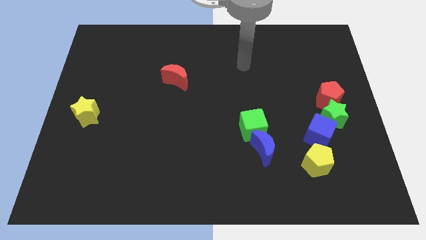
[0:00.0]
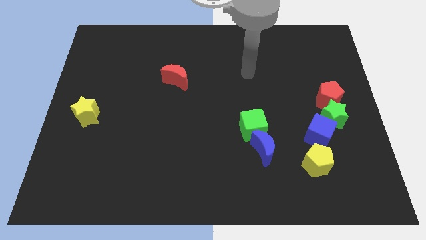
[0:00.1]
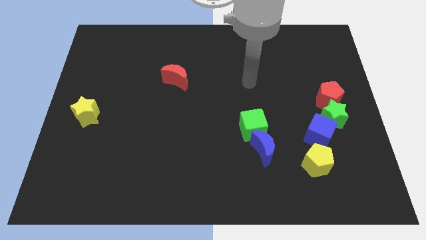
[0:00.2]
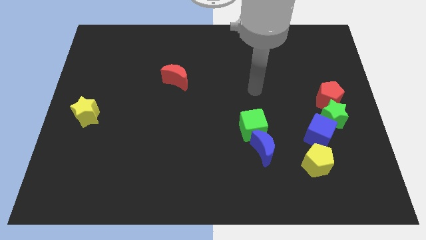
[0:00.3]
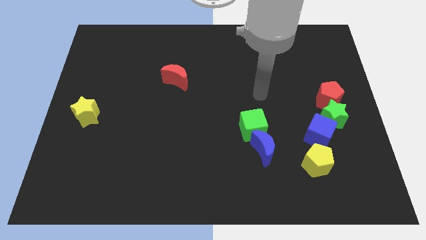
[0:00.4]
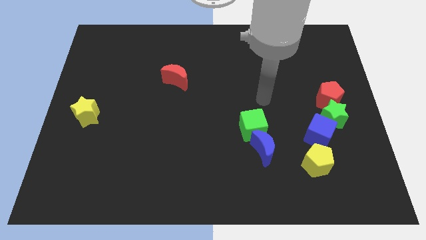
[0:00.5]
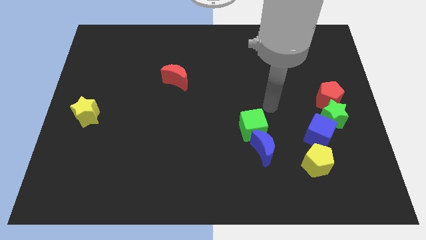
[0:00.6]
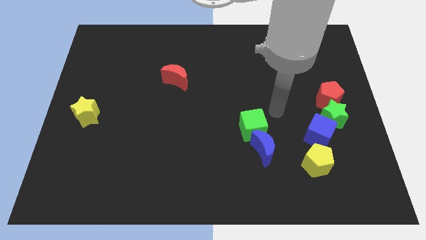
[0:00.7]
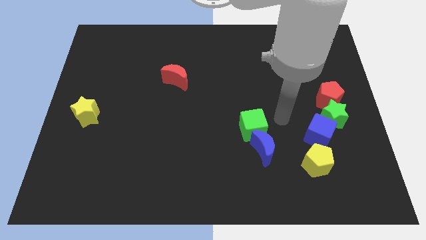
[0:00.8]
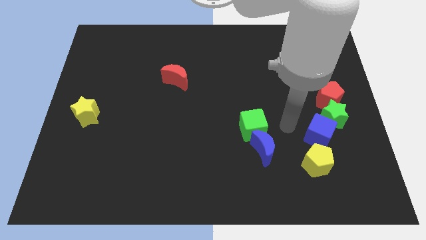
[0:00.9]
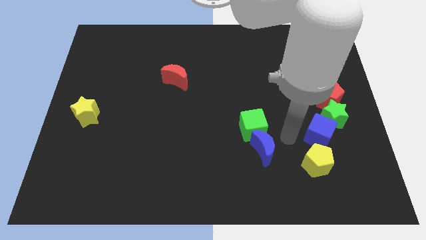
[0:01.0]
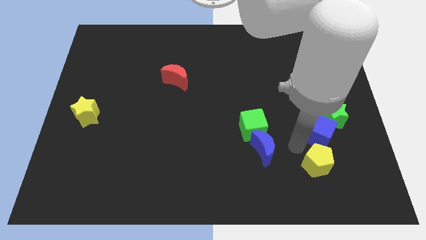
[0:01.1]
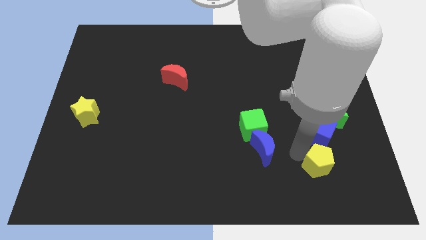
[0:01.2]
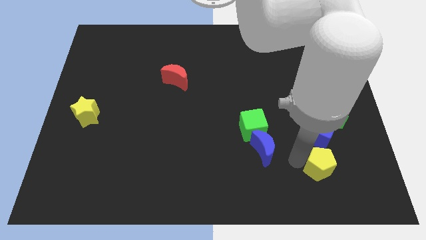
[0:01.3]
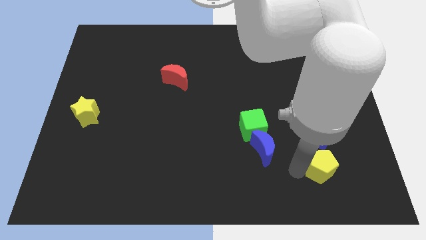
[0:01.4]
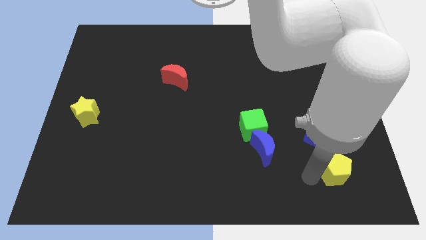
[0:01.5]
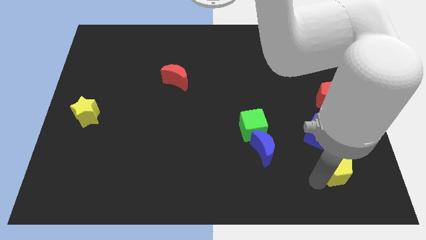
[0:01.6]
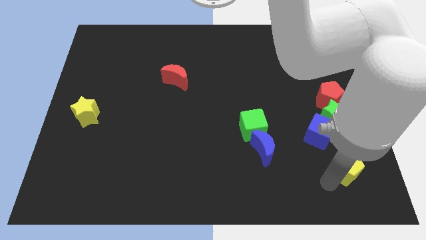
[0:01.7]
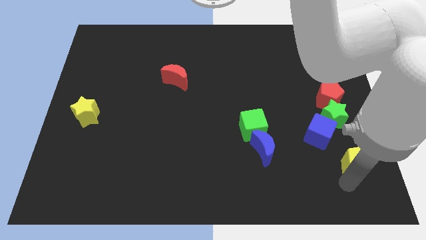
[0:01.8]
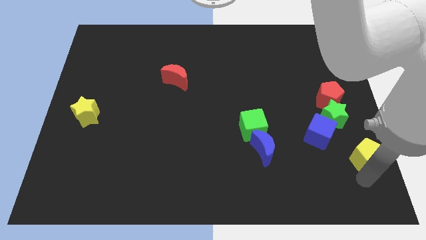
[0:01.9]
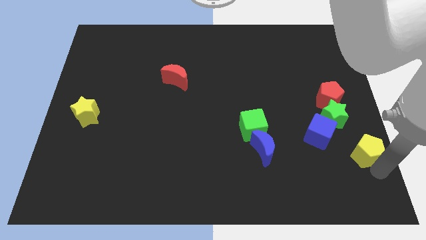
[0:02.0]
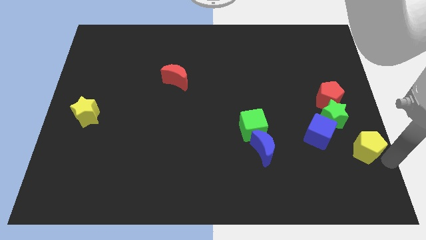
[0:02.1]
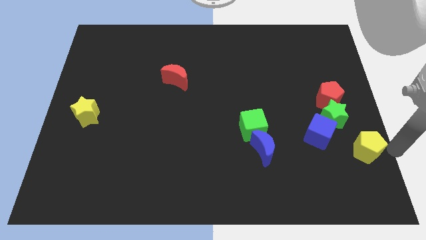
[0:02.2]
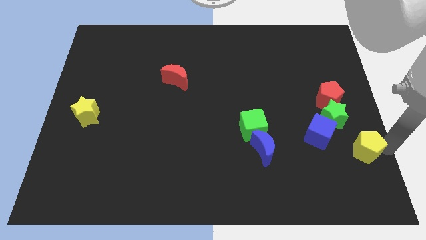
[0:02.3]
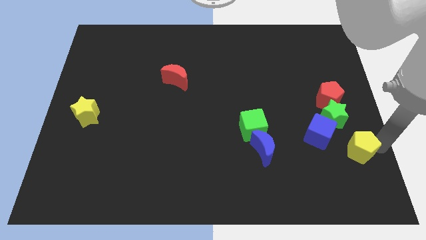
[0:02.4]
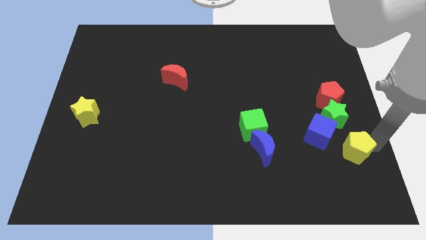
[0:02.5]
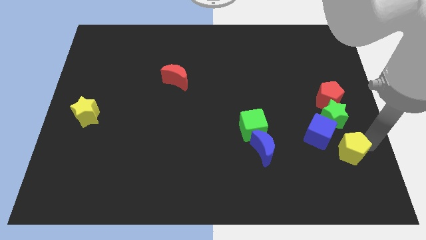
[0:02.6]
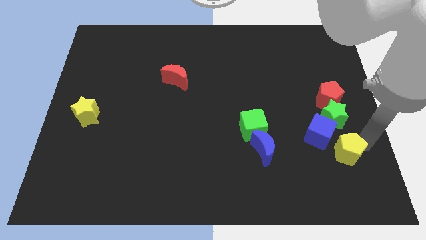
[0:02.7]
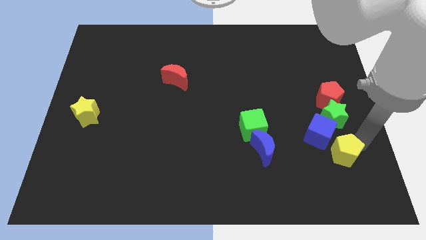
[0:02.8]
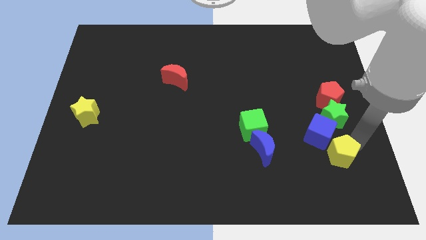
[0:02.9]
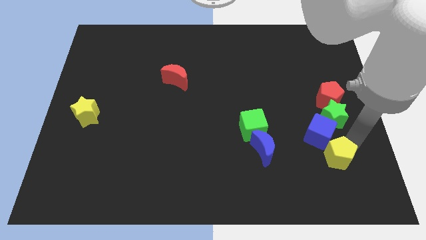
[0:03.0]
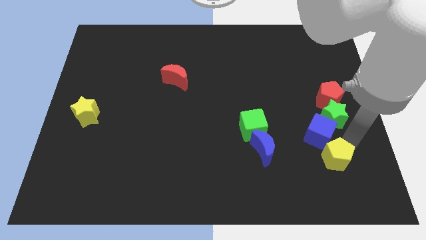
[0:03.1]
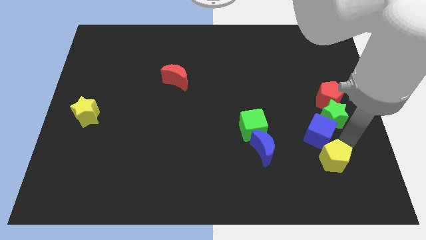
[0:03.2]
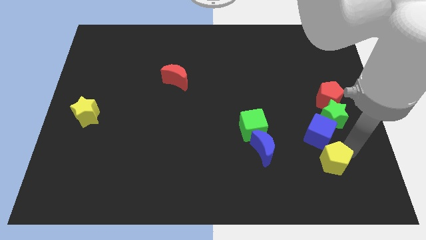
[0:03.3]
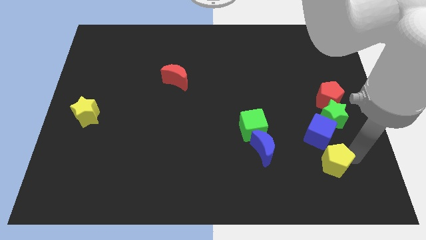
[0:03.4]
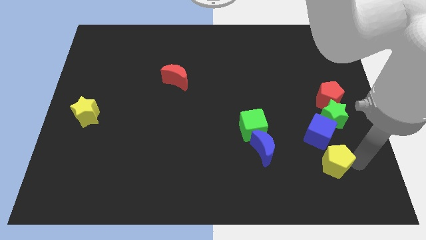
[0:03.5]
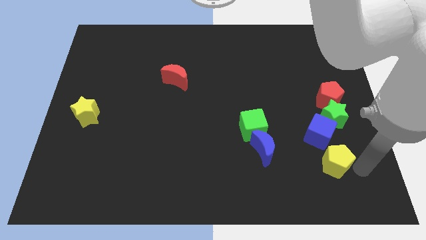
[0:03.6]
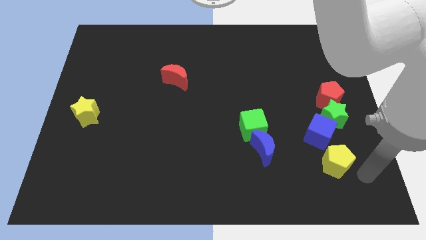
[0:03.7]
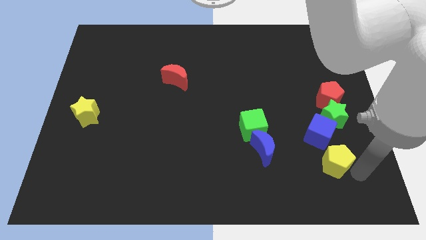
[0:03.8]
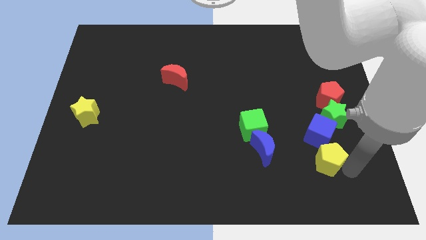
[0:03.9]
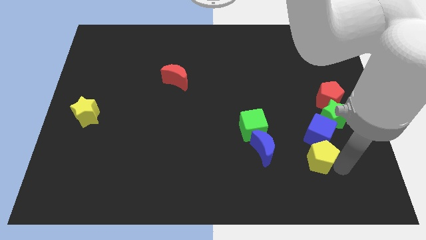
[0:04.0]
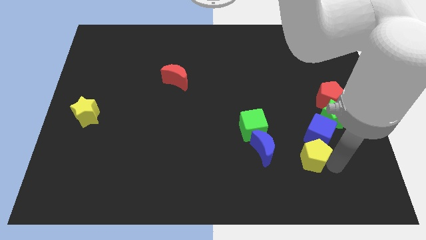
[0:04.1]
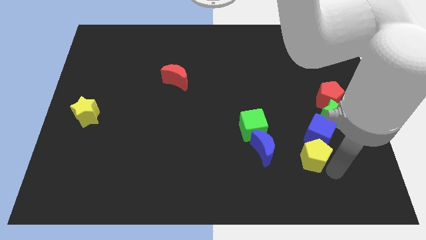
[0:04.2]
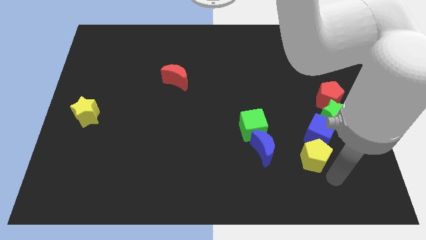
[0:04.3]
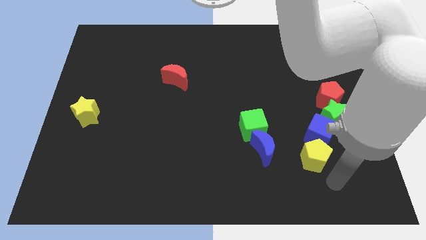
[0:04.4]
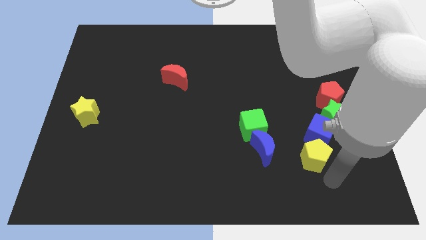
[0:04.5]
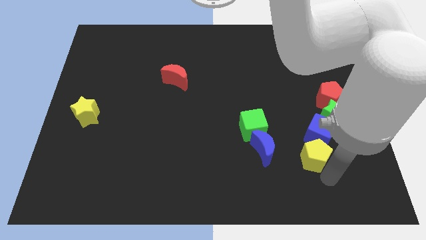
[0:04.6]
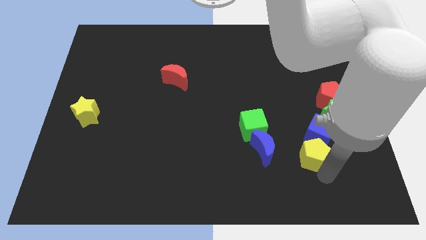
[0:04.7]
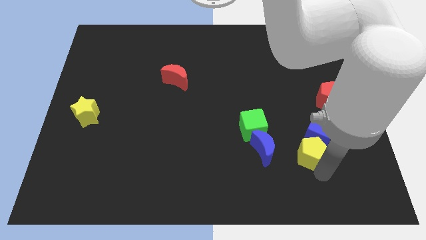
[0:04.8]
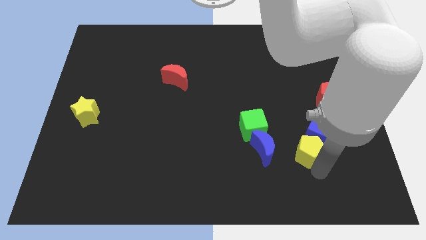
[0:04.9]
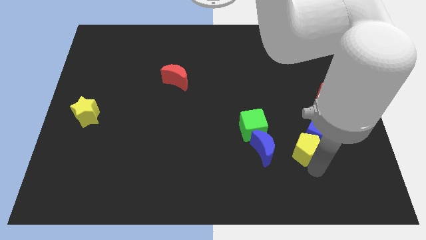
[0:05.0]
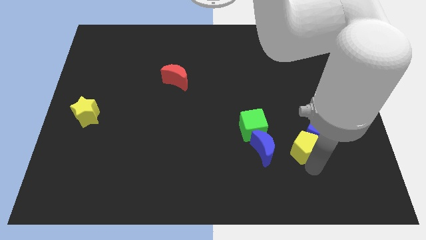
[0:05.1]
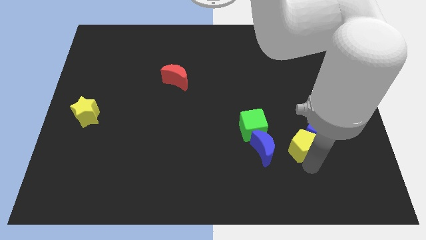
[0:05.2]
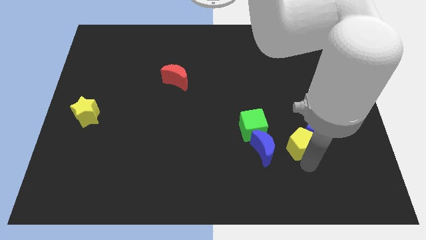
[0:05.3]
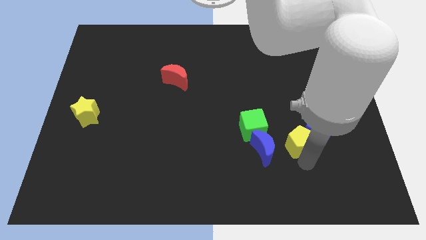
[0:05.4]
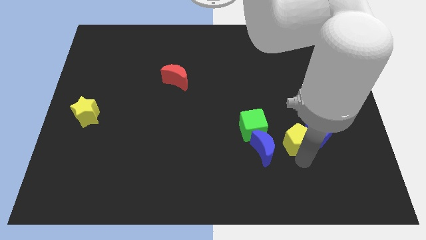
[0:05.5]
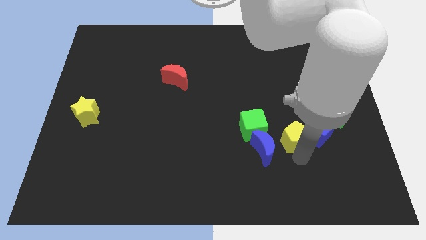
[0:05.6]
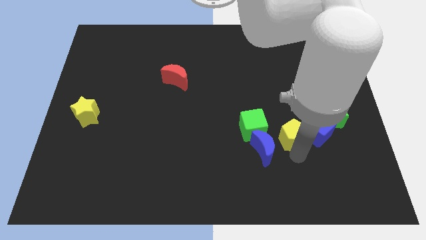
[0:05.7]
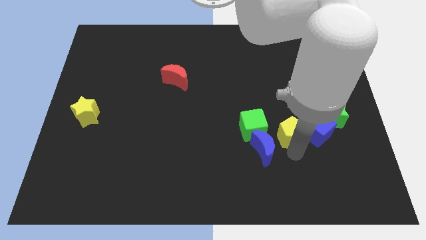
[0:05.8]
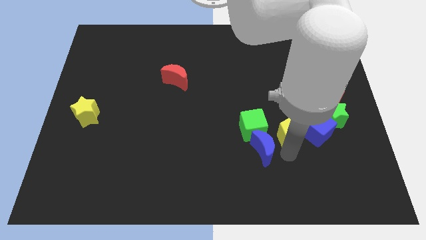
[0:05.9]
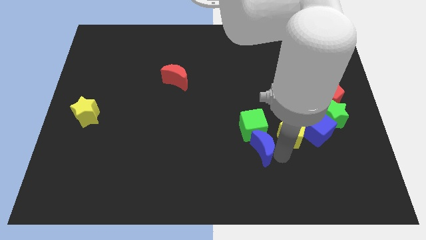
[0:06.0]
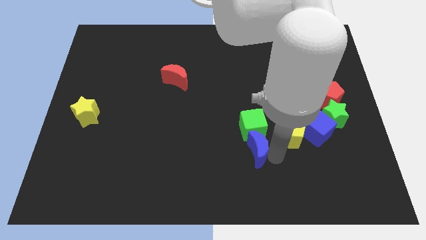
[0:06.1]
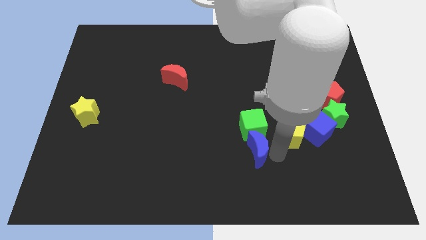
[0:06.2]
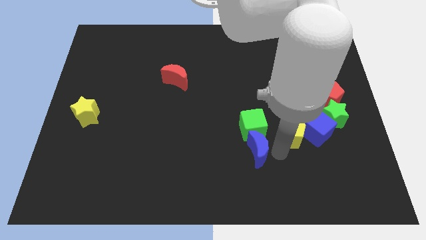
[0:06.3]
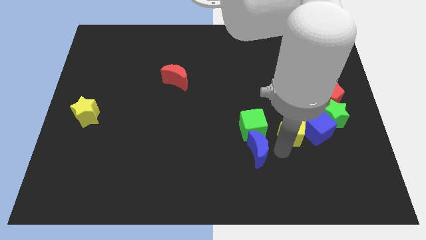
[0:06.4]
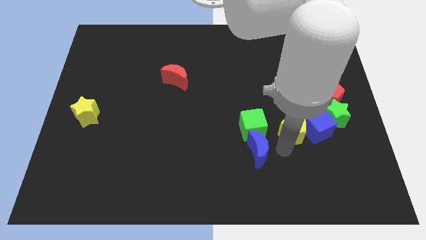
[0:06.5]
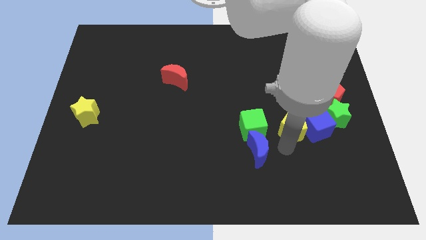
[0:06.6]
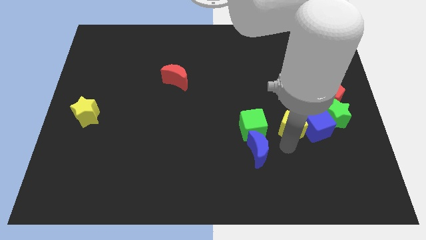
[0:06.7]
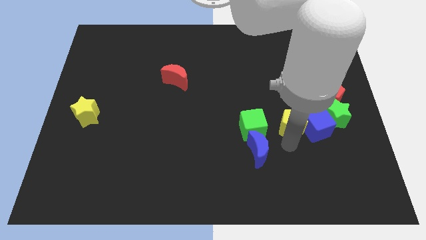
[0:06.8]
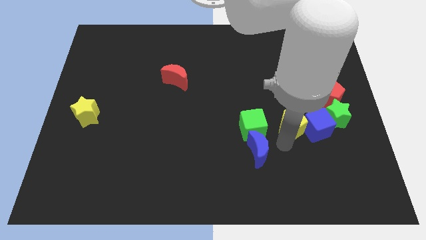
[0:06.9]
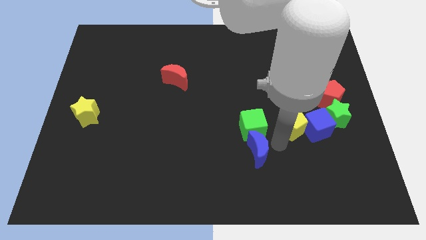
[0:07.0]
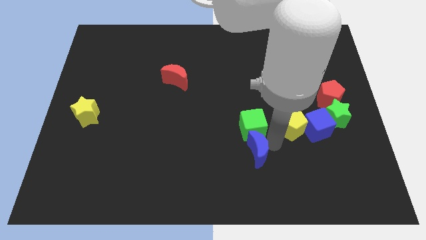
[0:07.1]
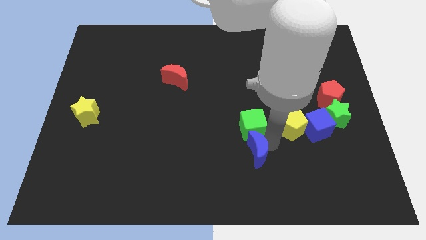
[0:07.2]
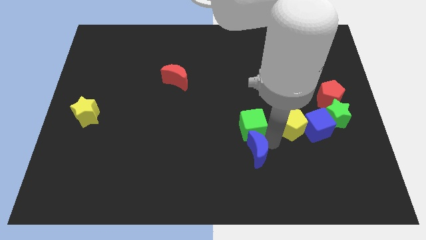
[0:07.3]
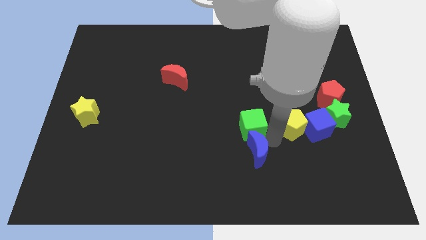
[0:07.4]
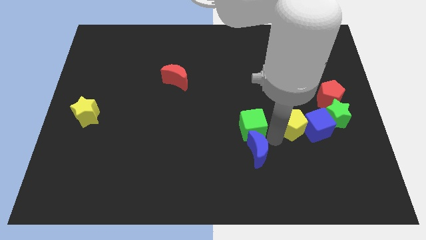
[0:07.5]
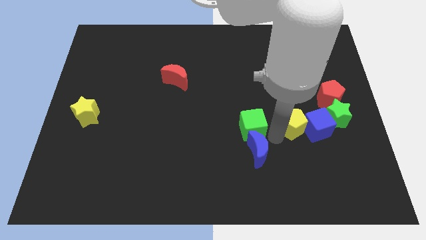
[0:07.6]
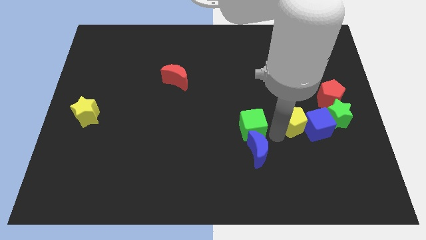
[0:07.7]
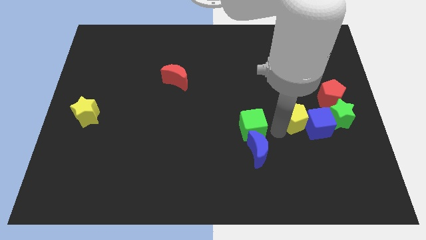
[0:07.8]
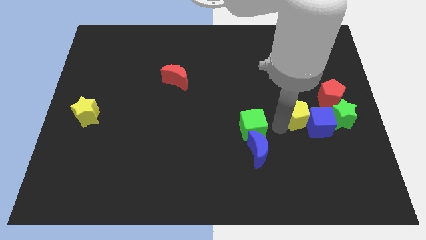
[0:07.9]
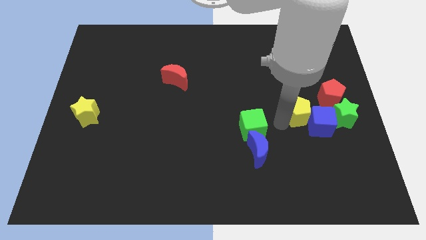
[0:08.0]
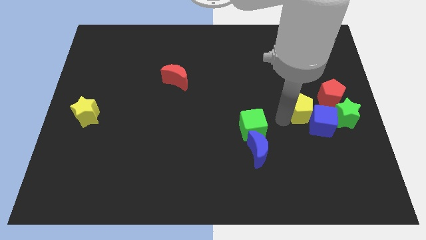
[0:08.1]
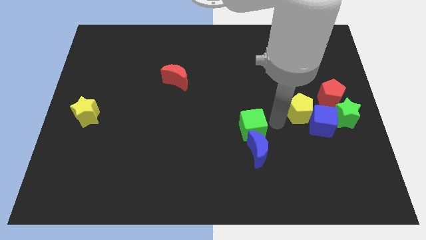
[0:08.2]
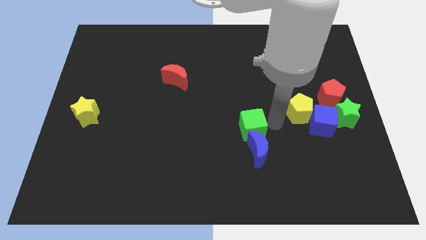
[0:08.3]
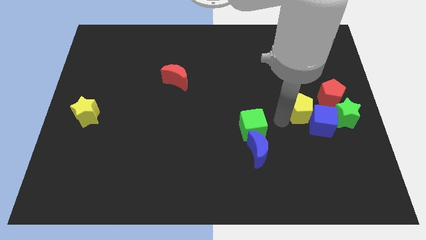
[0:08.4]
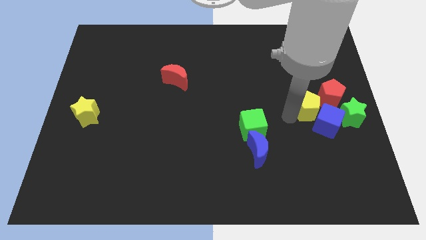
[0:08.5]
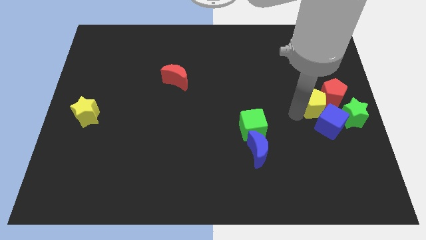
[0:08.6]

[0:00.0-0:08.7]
slide the yellow pentagon close to the red pentagon
